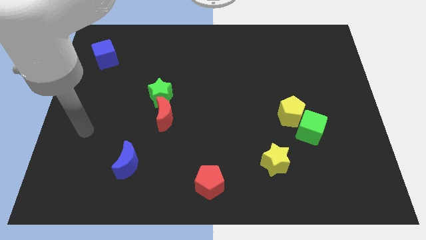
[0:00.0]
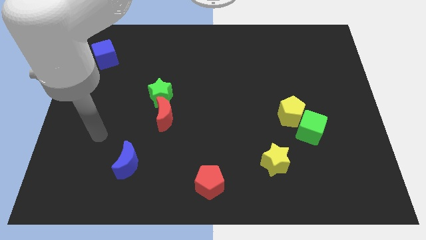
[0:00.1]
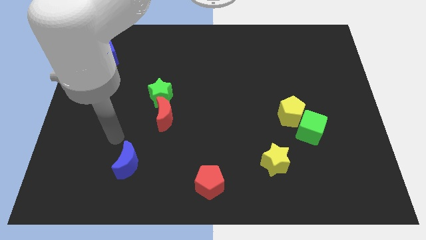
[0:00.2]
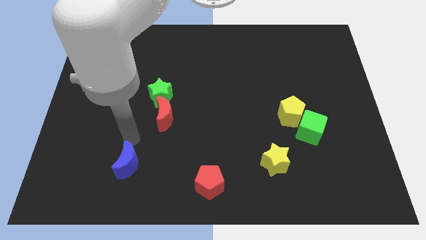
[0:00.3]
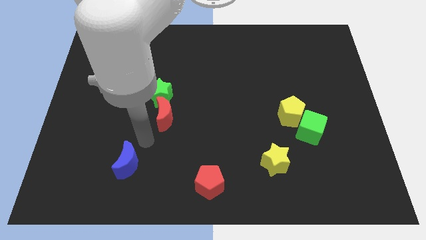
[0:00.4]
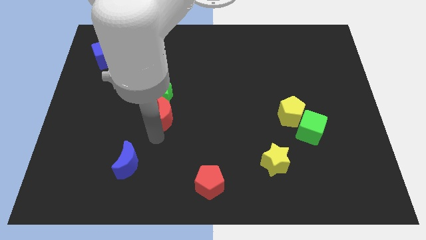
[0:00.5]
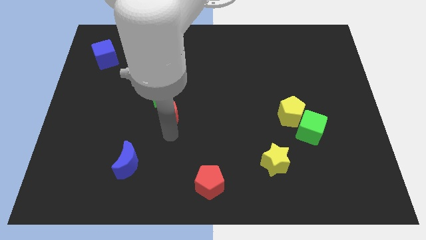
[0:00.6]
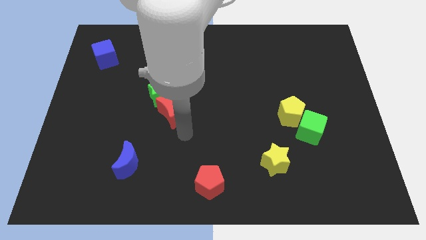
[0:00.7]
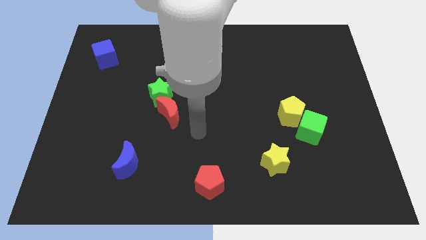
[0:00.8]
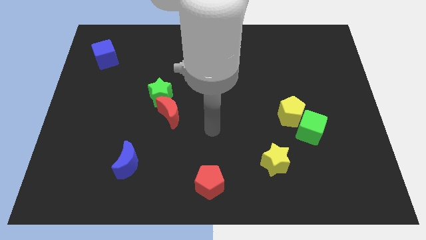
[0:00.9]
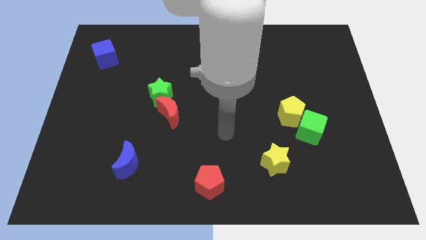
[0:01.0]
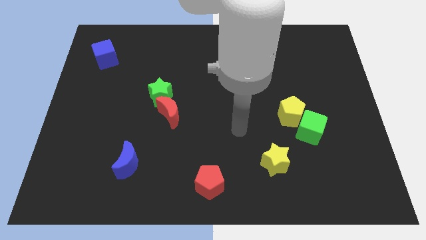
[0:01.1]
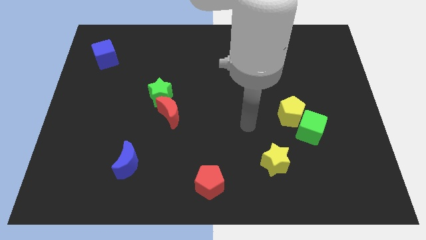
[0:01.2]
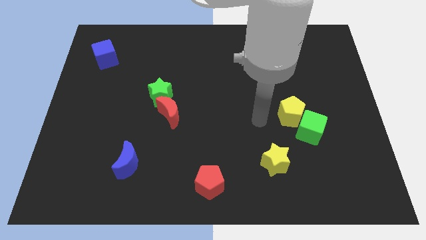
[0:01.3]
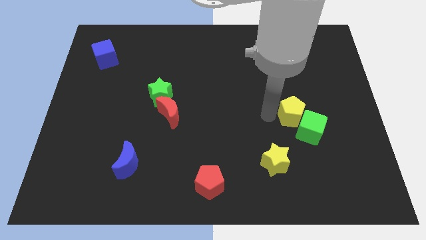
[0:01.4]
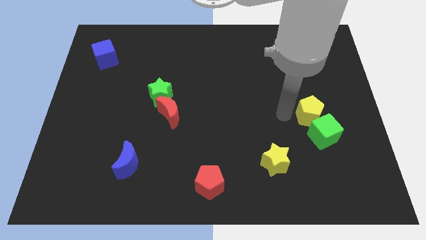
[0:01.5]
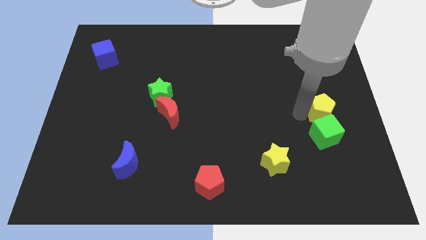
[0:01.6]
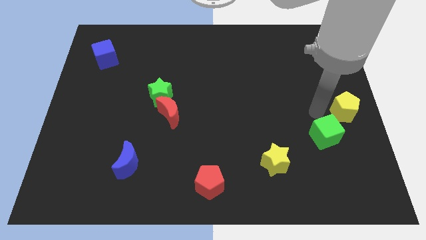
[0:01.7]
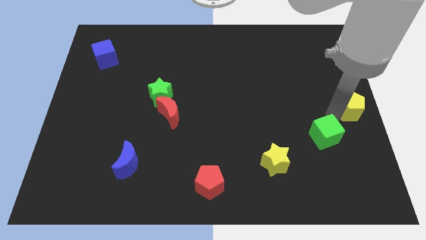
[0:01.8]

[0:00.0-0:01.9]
pull the green cube apart from the yellow pentagon

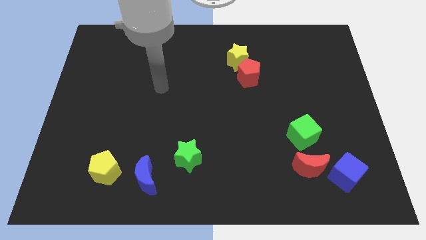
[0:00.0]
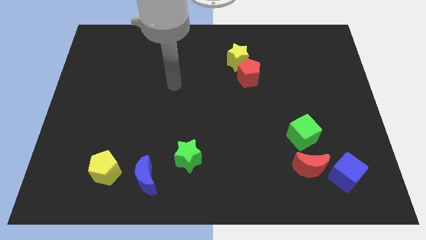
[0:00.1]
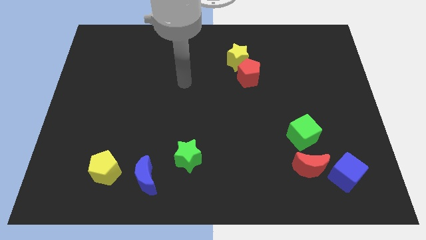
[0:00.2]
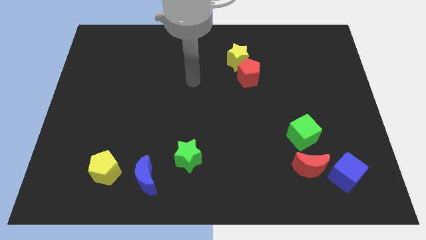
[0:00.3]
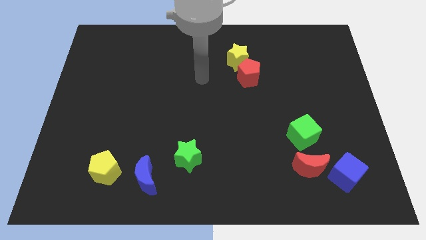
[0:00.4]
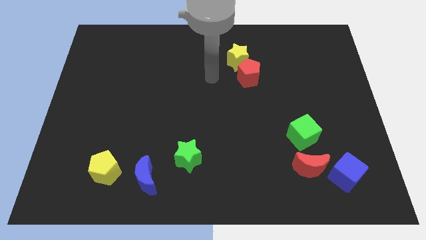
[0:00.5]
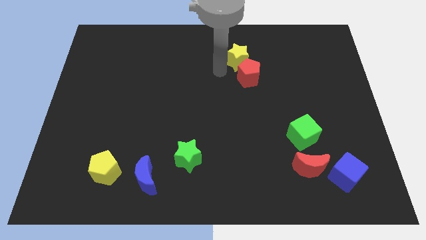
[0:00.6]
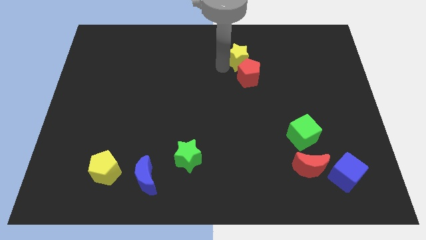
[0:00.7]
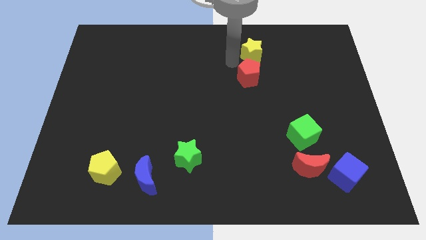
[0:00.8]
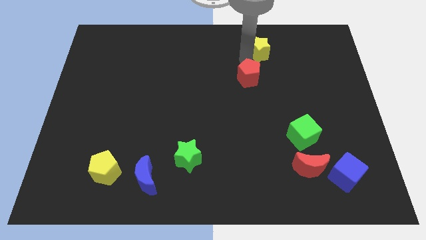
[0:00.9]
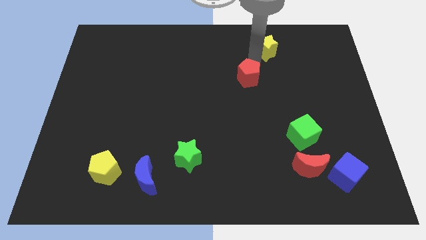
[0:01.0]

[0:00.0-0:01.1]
separate the red pentagon from the yellow star

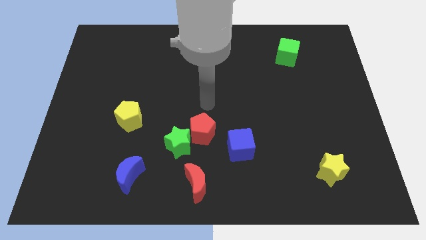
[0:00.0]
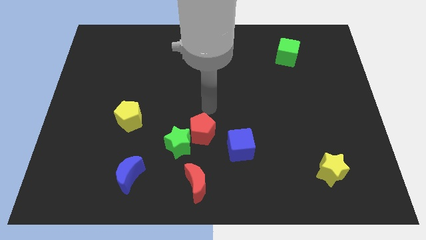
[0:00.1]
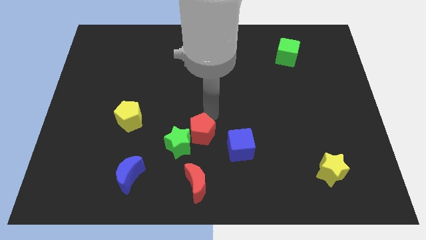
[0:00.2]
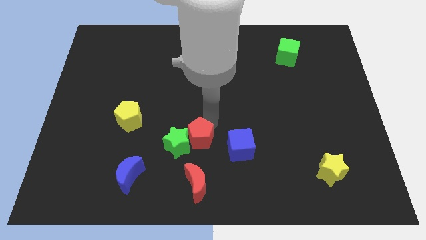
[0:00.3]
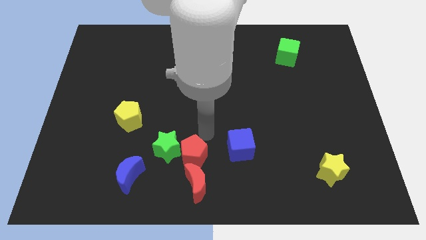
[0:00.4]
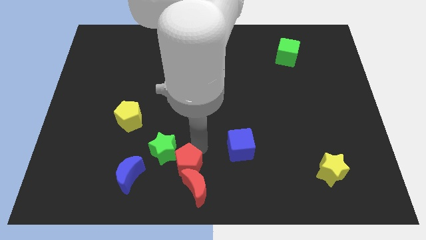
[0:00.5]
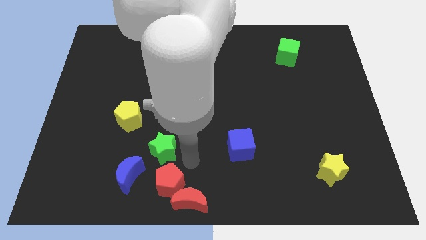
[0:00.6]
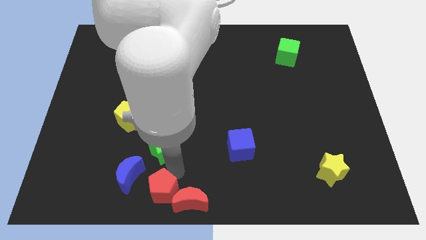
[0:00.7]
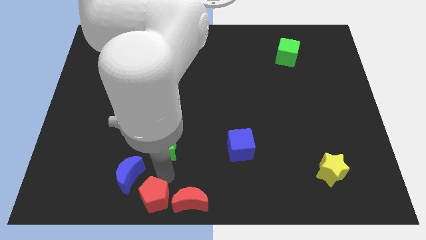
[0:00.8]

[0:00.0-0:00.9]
move the green star away from the red pentagon

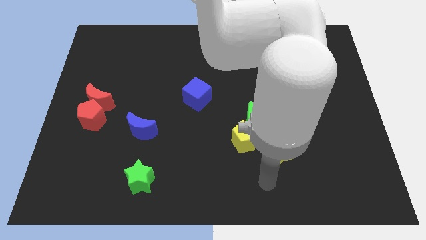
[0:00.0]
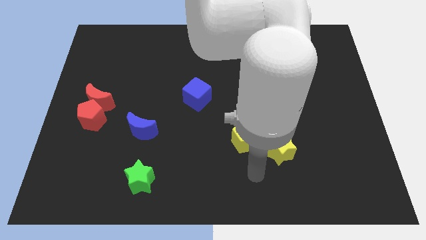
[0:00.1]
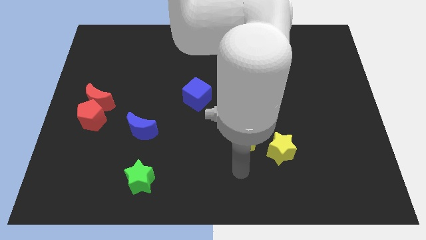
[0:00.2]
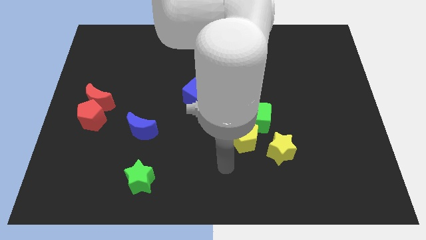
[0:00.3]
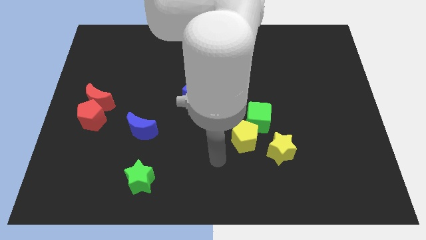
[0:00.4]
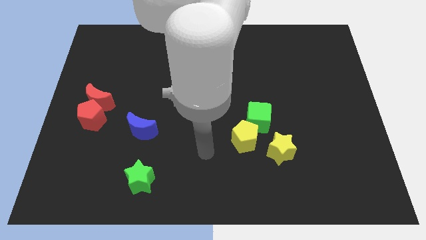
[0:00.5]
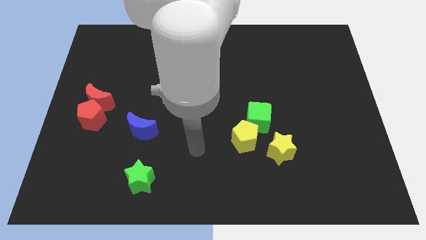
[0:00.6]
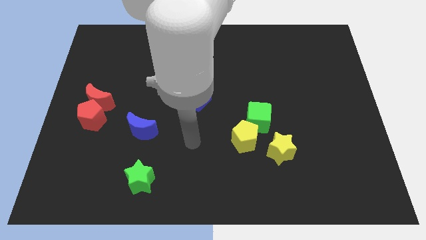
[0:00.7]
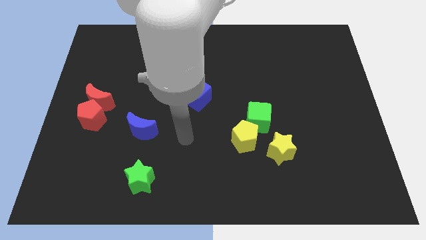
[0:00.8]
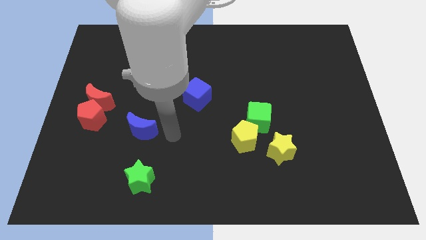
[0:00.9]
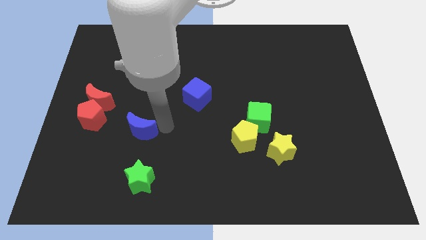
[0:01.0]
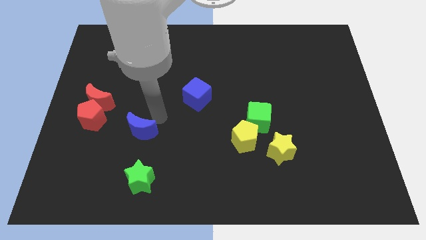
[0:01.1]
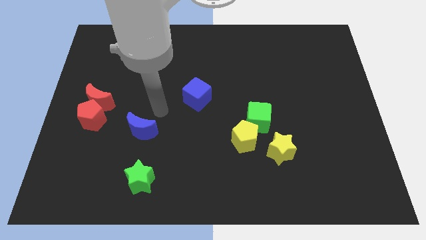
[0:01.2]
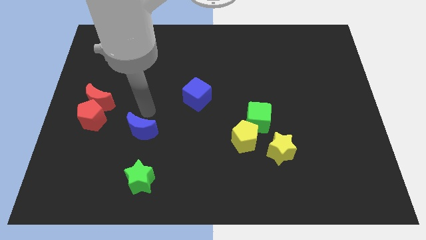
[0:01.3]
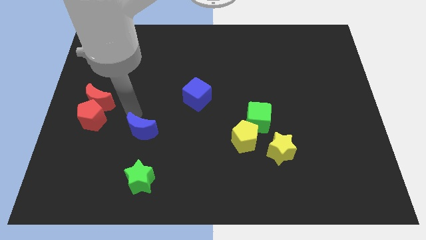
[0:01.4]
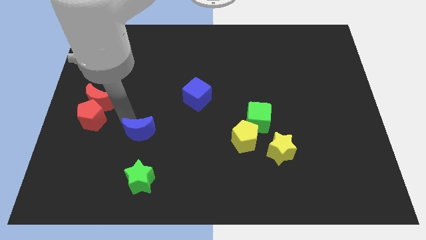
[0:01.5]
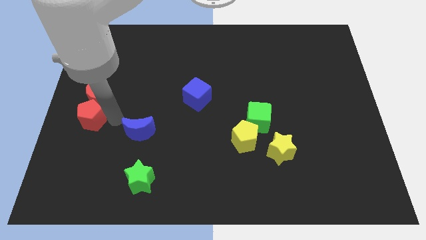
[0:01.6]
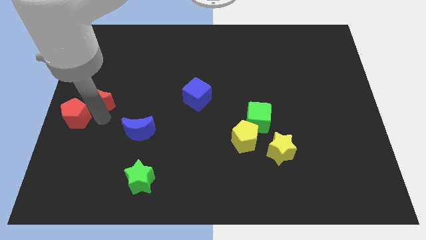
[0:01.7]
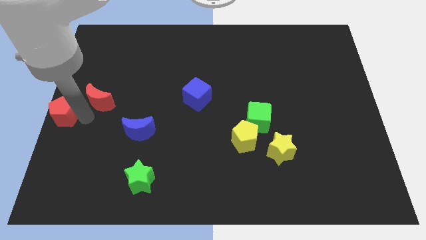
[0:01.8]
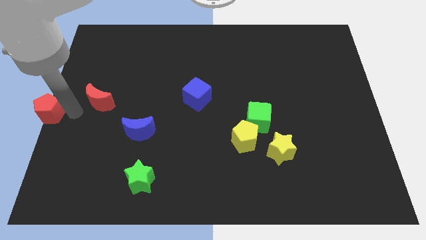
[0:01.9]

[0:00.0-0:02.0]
move the red moon away from the red pentagon

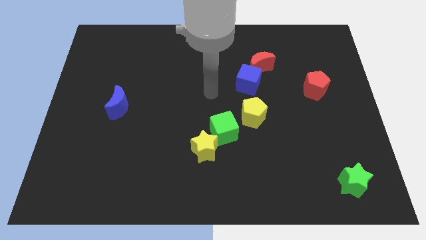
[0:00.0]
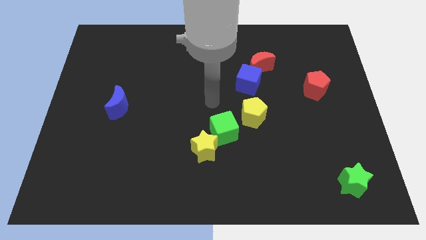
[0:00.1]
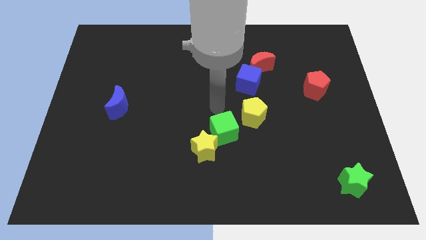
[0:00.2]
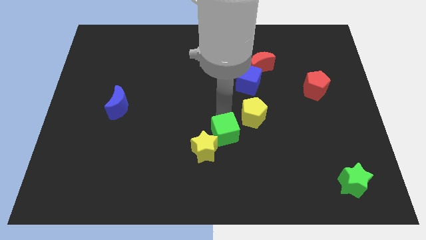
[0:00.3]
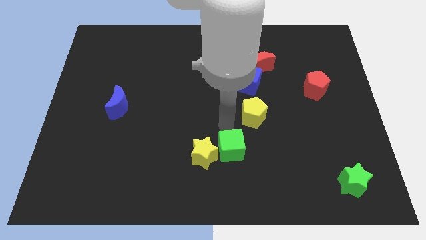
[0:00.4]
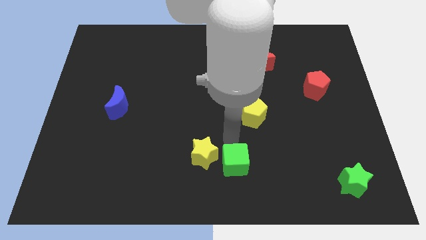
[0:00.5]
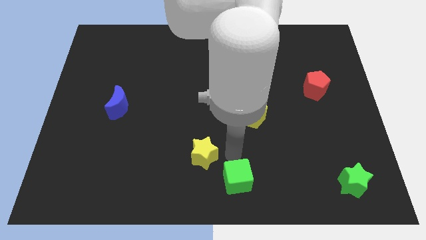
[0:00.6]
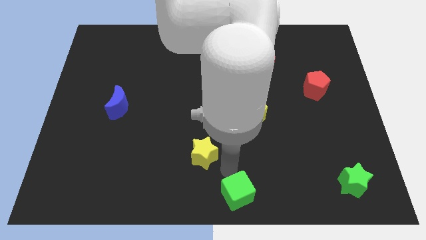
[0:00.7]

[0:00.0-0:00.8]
pull the yellow star apart from the green cube

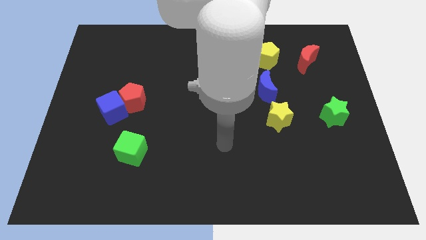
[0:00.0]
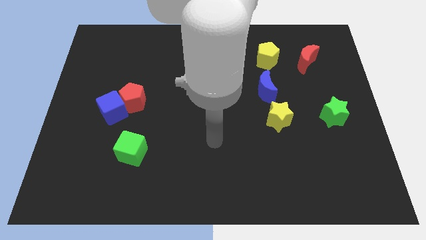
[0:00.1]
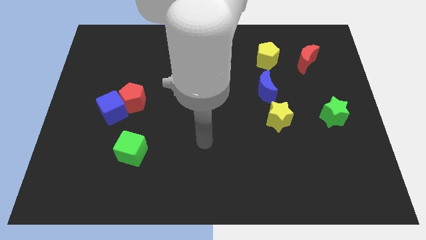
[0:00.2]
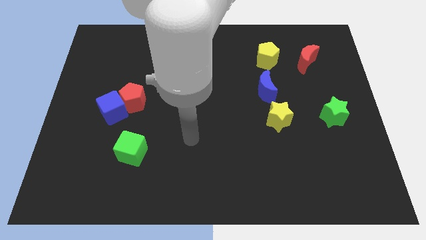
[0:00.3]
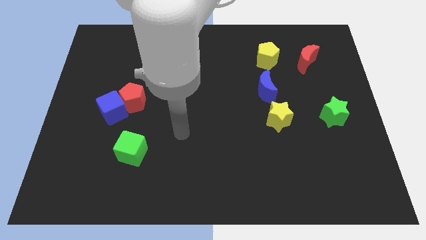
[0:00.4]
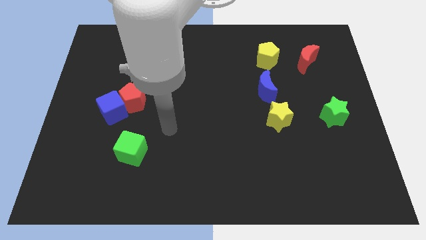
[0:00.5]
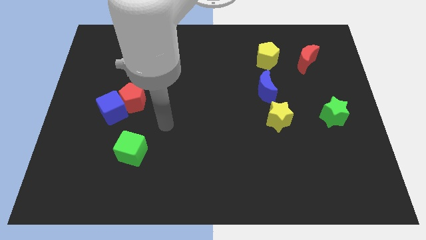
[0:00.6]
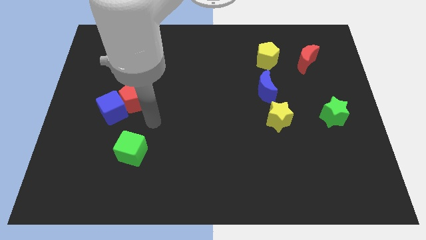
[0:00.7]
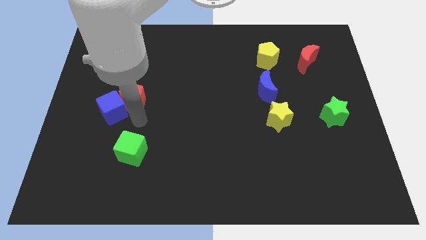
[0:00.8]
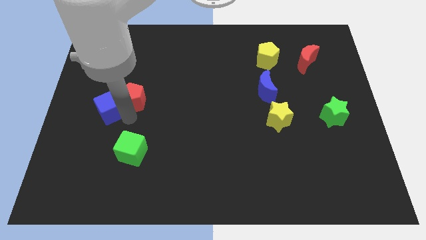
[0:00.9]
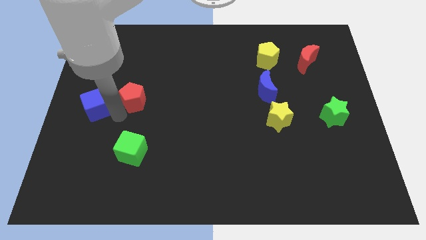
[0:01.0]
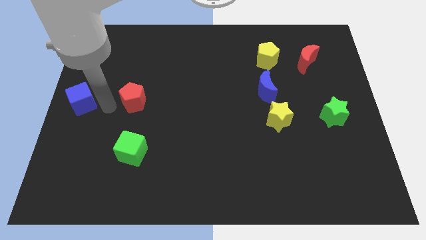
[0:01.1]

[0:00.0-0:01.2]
pull the red pentagon apart from the blue cube

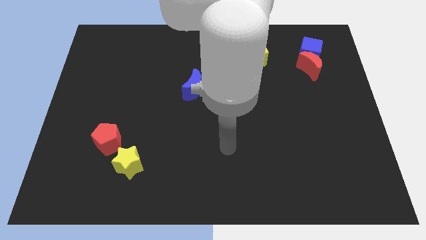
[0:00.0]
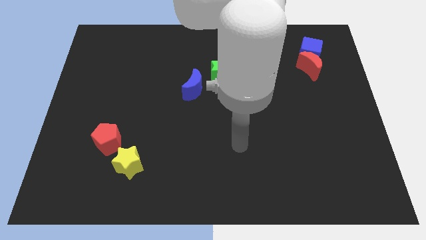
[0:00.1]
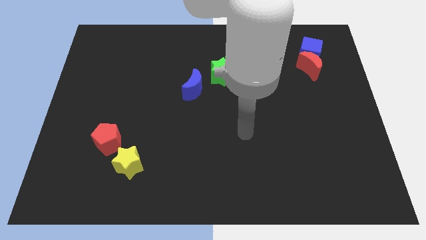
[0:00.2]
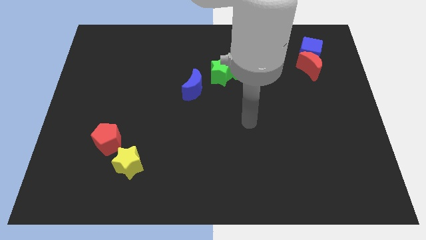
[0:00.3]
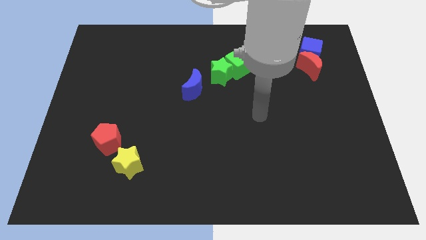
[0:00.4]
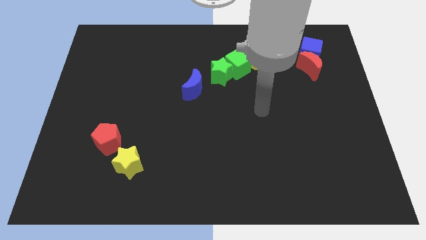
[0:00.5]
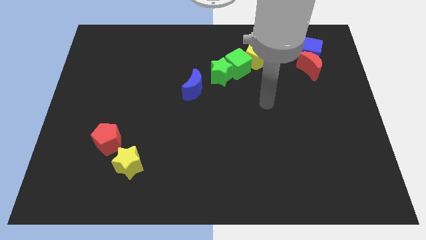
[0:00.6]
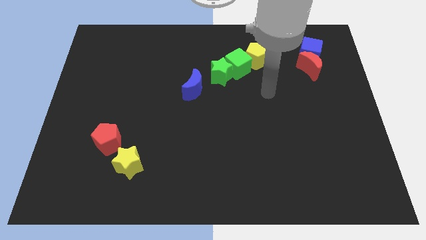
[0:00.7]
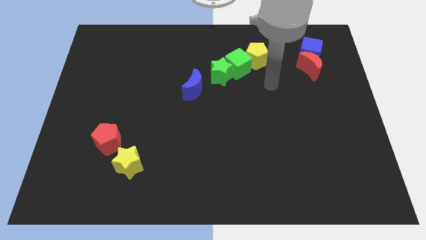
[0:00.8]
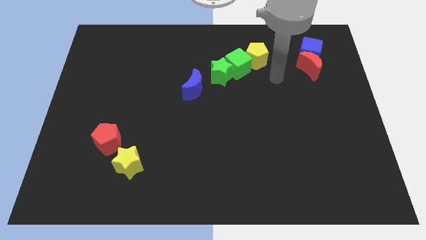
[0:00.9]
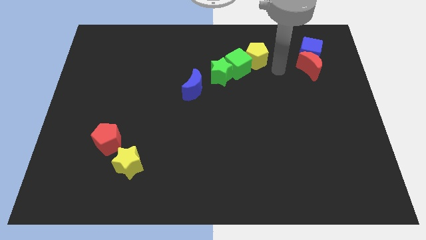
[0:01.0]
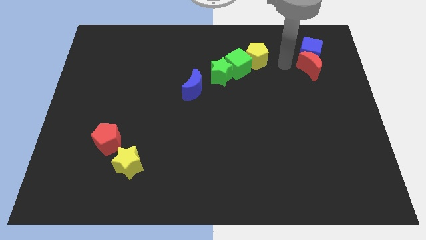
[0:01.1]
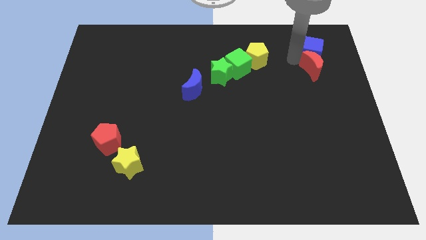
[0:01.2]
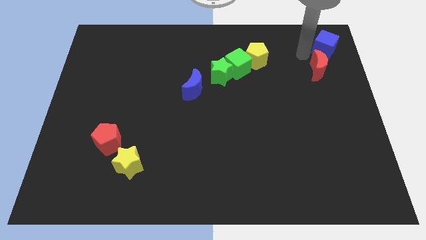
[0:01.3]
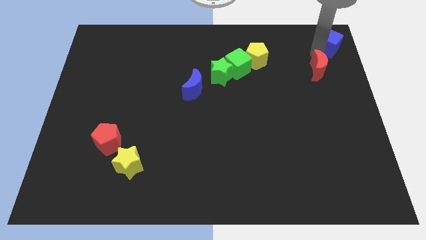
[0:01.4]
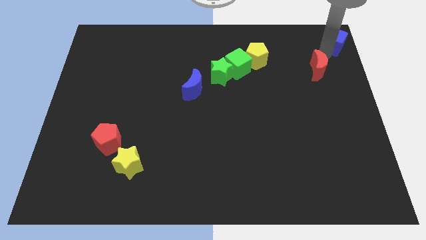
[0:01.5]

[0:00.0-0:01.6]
move the red moon away from the blue cube
